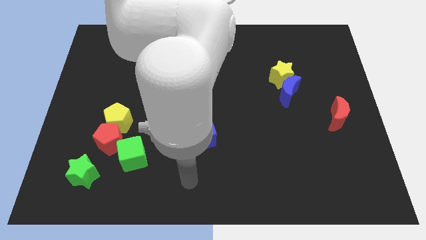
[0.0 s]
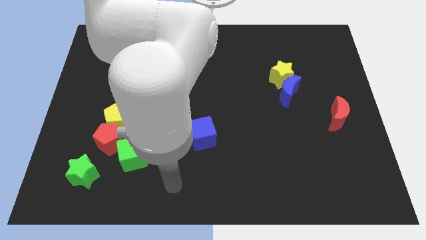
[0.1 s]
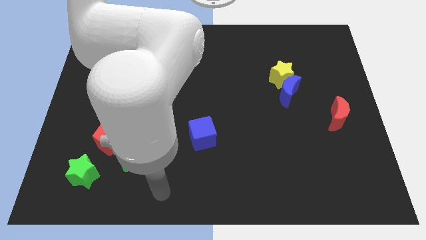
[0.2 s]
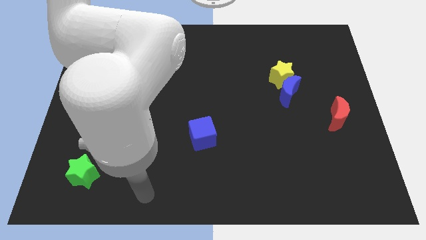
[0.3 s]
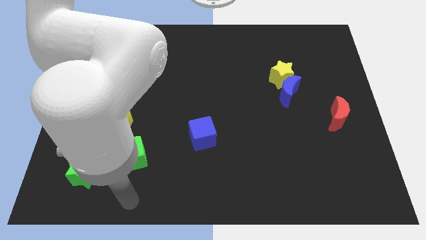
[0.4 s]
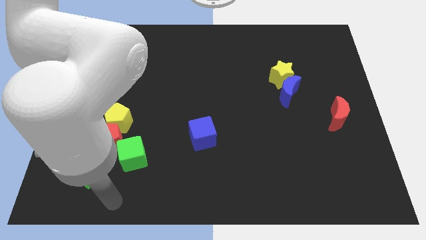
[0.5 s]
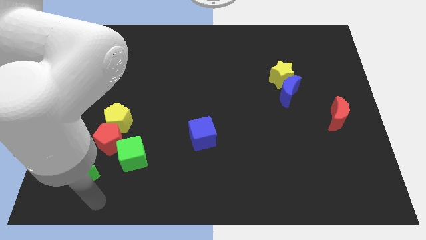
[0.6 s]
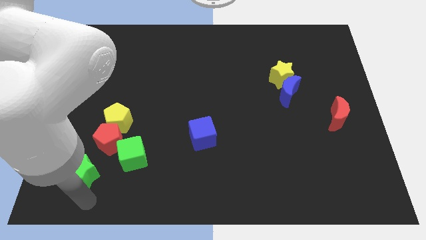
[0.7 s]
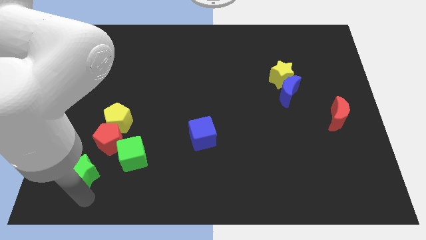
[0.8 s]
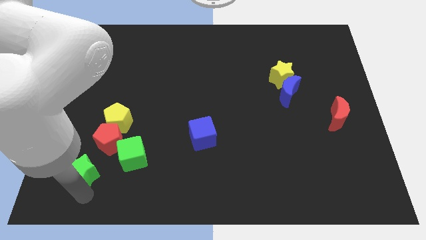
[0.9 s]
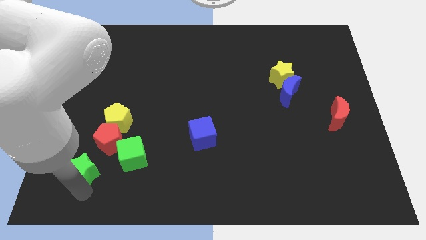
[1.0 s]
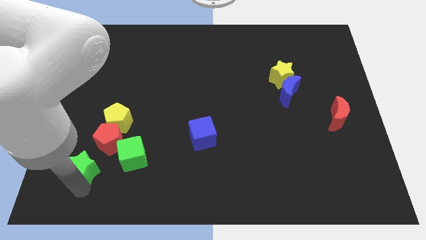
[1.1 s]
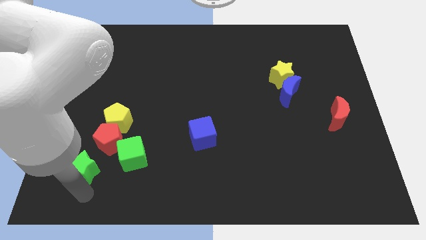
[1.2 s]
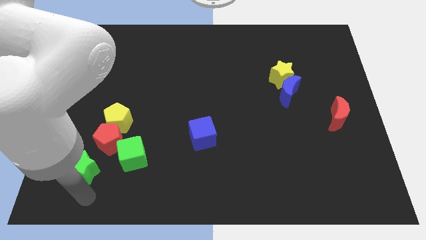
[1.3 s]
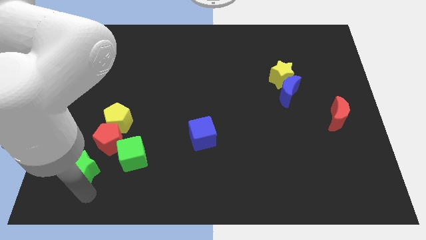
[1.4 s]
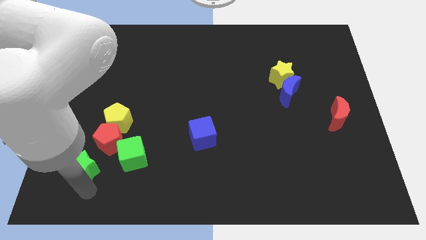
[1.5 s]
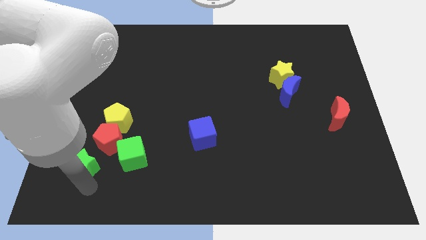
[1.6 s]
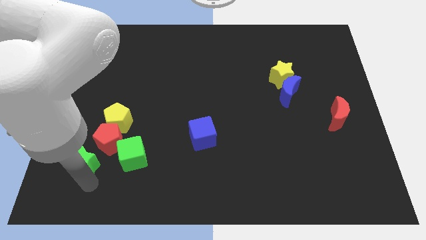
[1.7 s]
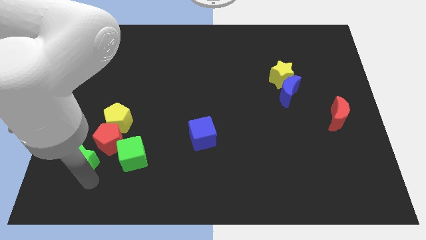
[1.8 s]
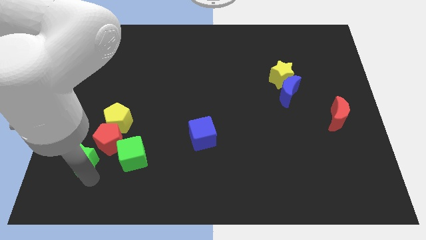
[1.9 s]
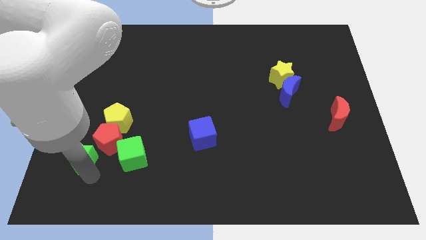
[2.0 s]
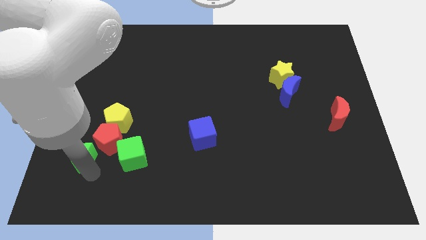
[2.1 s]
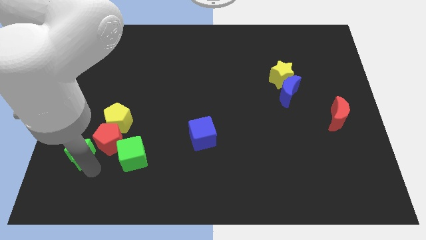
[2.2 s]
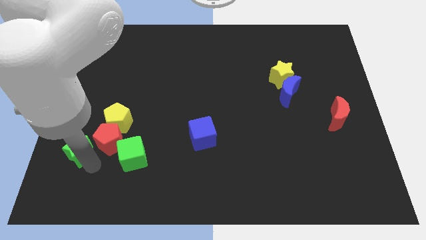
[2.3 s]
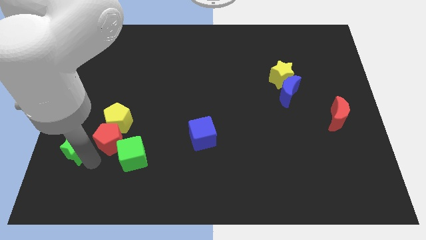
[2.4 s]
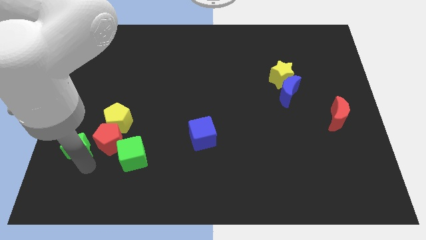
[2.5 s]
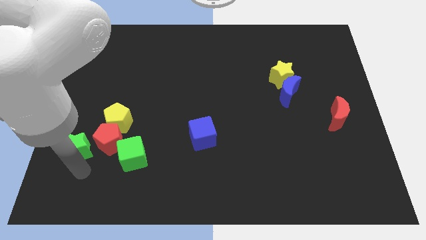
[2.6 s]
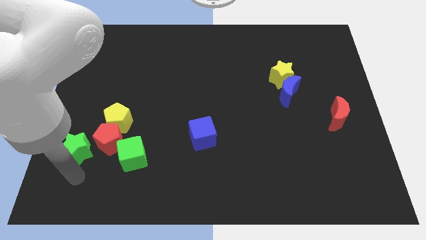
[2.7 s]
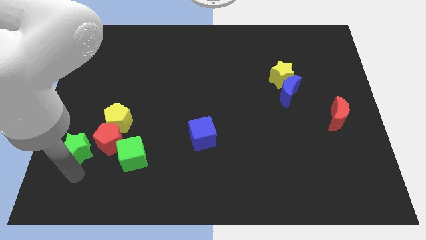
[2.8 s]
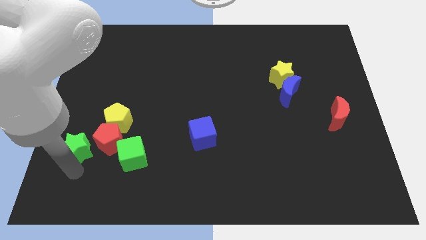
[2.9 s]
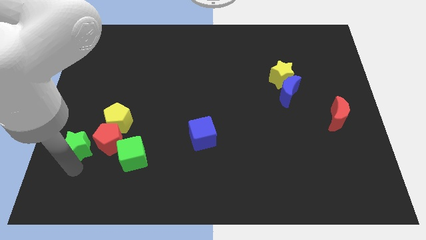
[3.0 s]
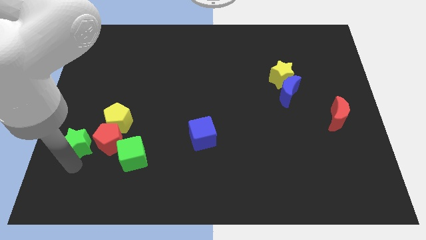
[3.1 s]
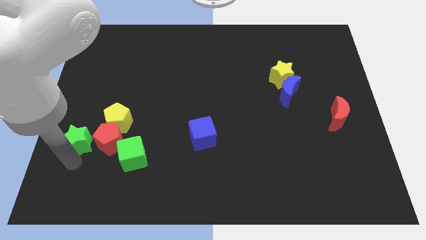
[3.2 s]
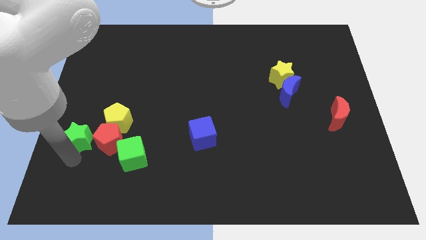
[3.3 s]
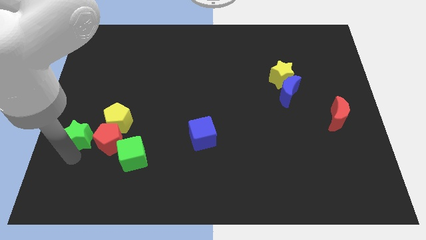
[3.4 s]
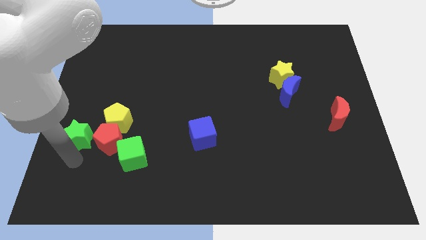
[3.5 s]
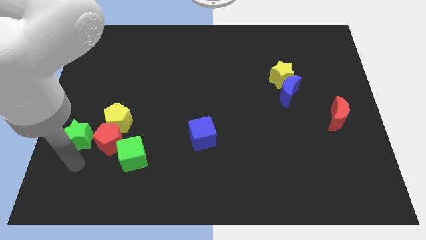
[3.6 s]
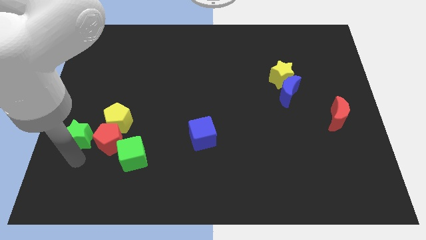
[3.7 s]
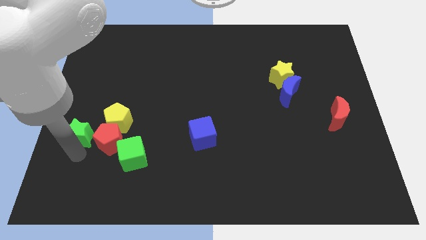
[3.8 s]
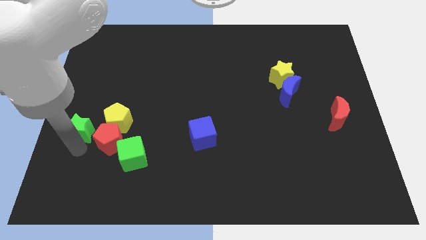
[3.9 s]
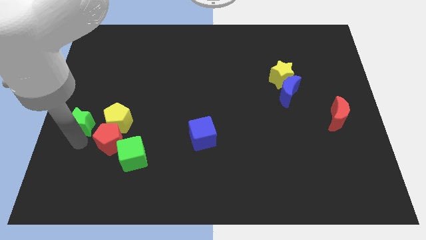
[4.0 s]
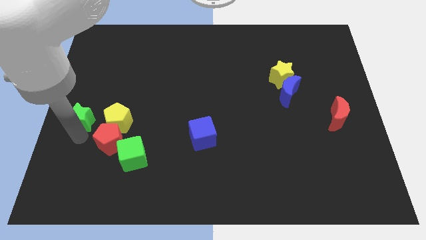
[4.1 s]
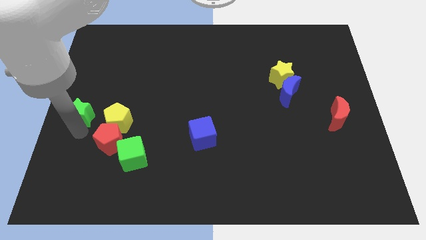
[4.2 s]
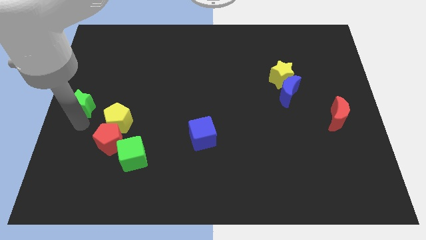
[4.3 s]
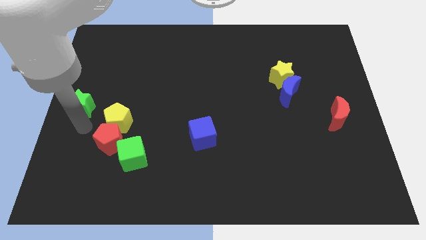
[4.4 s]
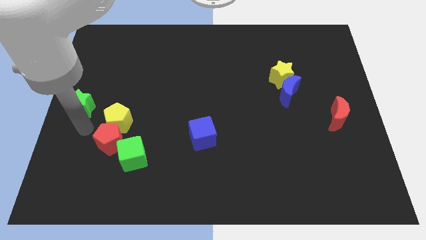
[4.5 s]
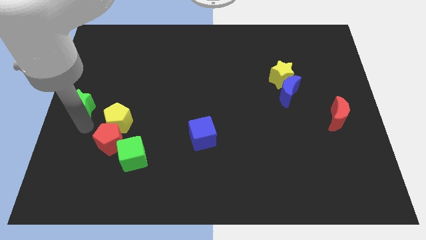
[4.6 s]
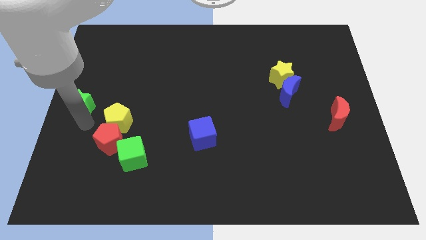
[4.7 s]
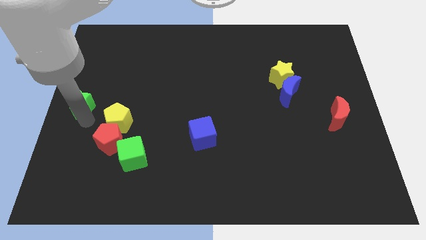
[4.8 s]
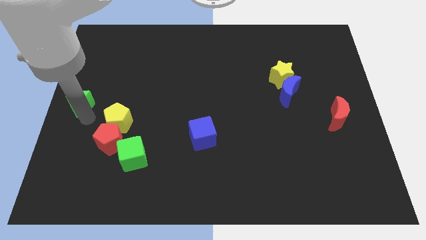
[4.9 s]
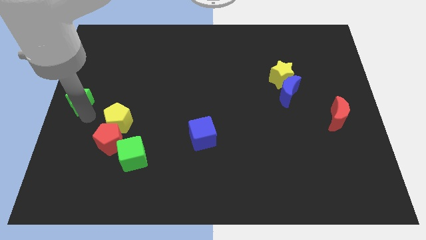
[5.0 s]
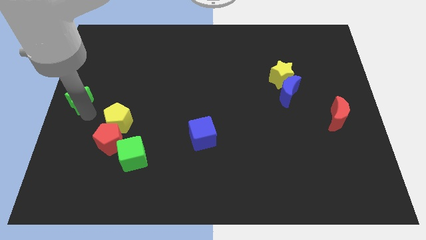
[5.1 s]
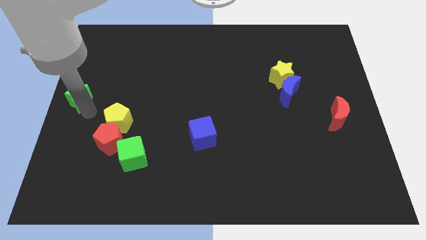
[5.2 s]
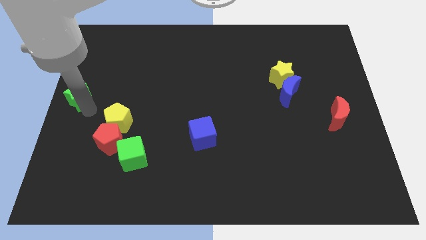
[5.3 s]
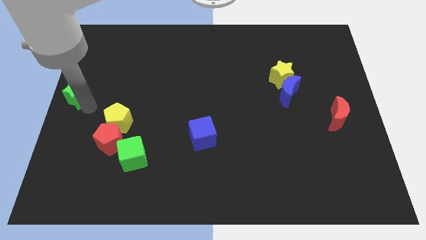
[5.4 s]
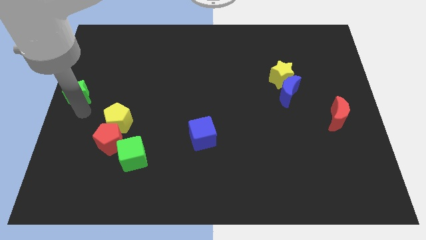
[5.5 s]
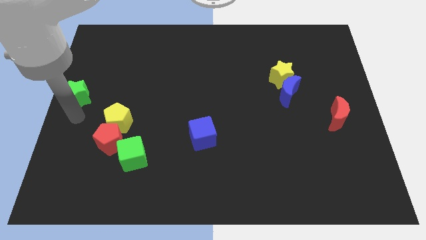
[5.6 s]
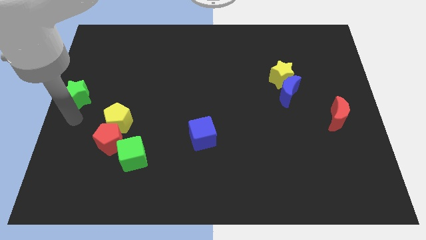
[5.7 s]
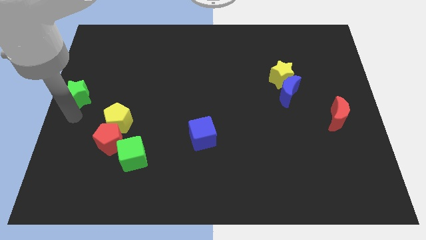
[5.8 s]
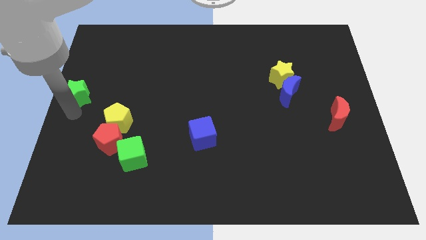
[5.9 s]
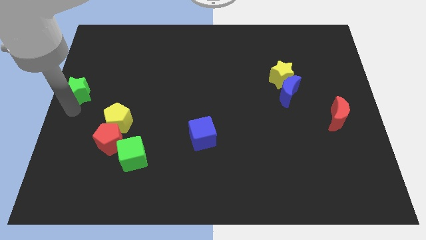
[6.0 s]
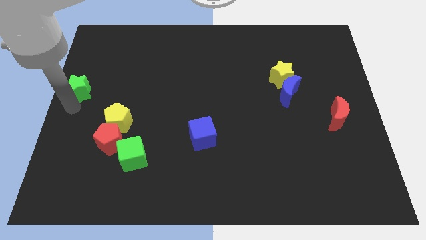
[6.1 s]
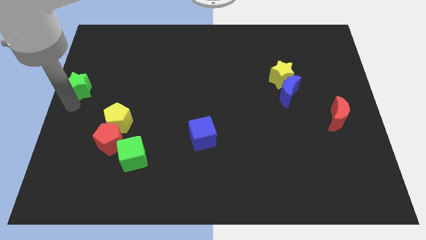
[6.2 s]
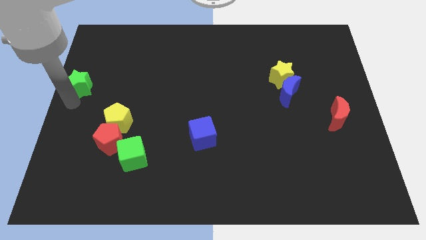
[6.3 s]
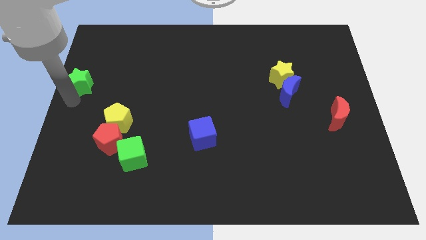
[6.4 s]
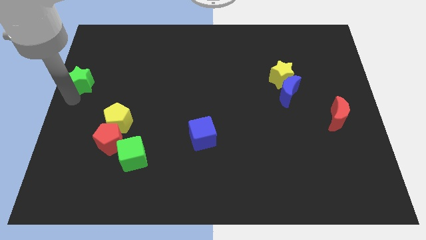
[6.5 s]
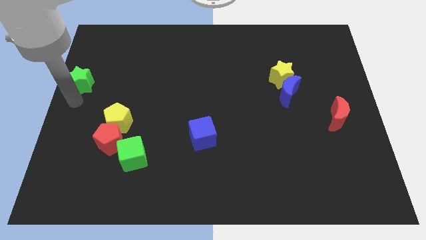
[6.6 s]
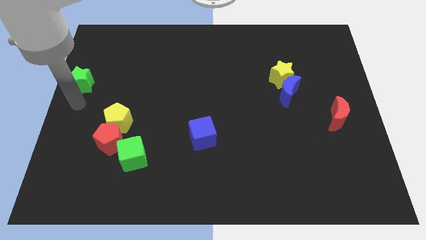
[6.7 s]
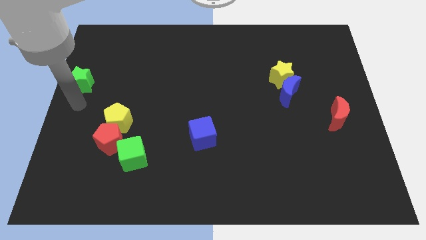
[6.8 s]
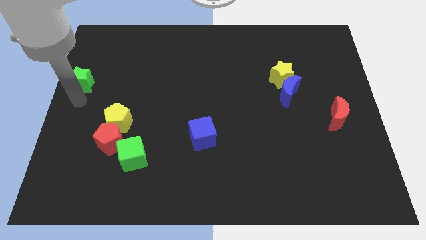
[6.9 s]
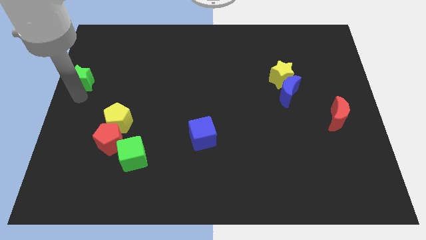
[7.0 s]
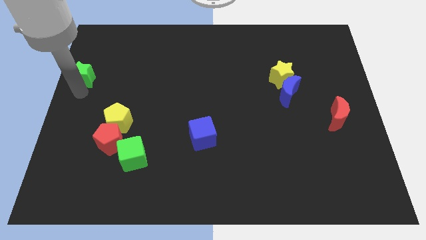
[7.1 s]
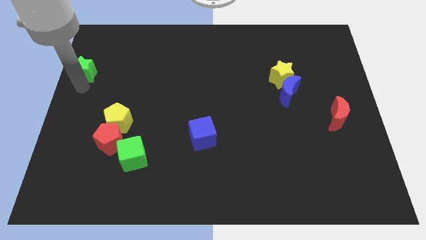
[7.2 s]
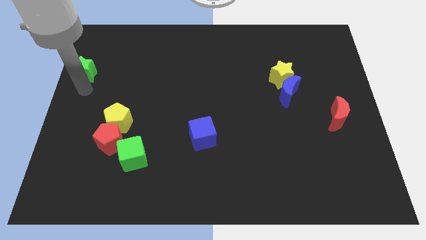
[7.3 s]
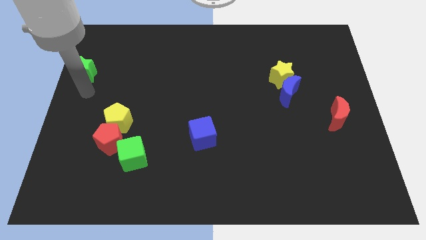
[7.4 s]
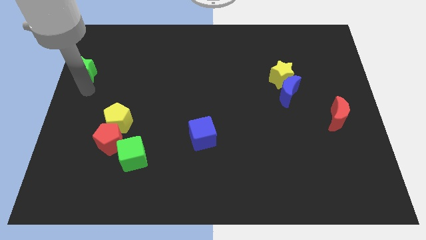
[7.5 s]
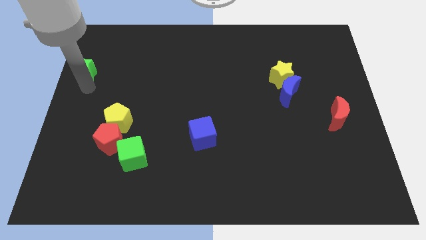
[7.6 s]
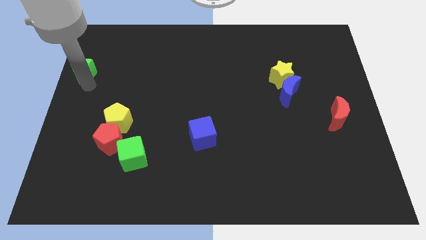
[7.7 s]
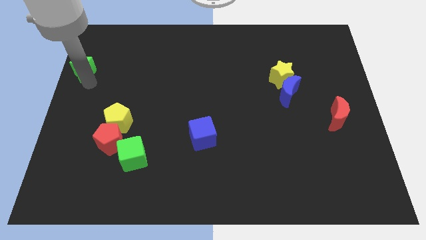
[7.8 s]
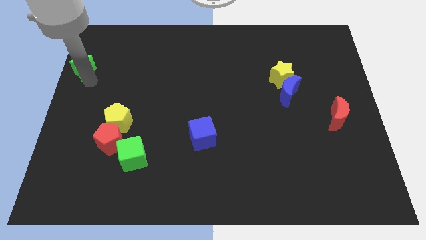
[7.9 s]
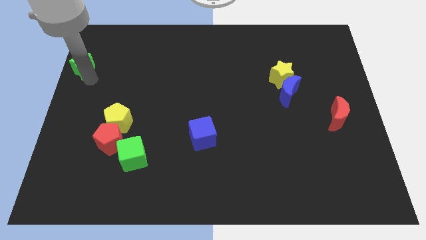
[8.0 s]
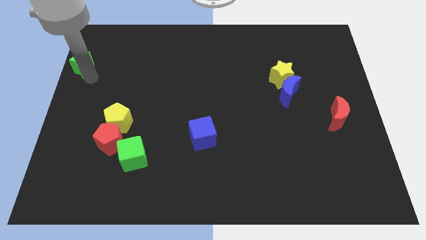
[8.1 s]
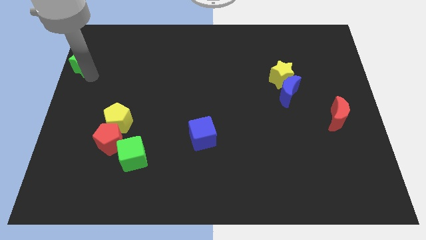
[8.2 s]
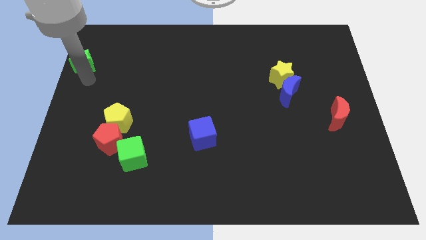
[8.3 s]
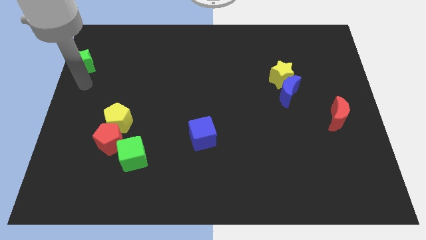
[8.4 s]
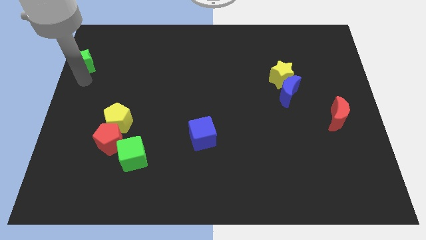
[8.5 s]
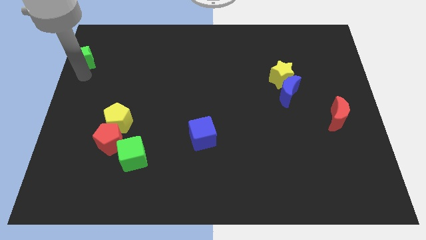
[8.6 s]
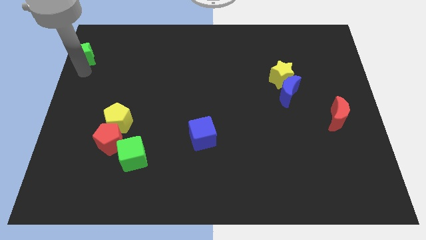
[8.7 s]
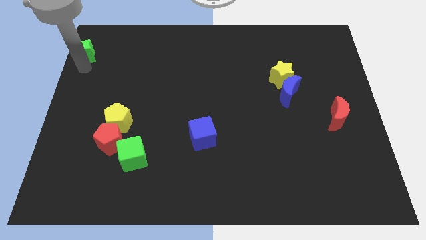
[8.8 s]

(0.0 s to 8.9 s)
put the green star to the top left
